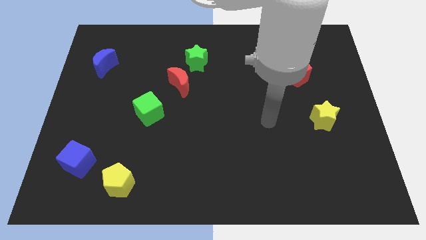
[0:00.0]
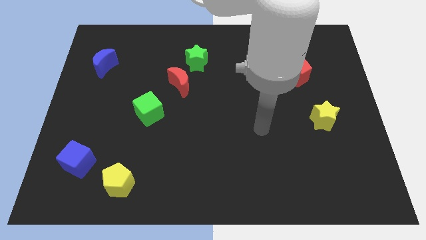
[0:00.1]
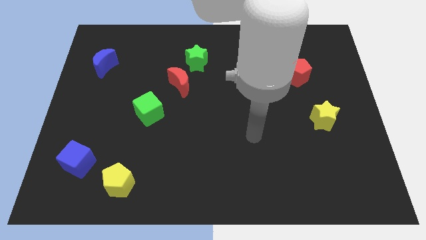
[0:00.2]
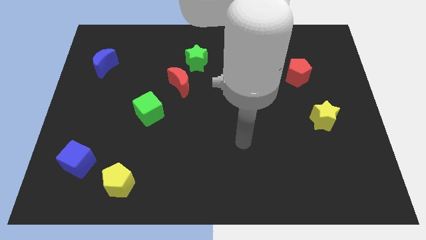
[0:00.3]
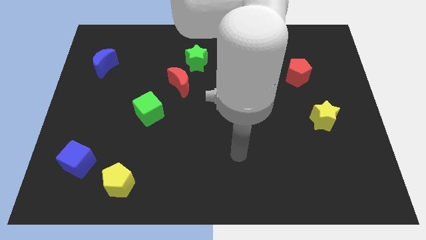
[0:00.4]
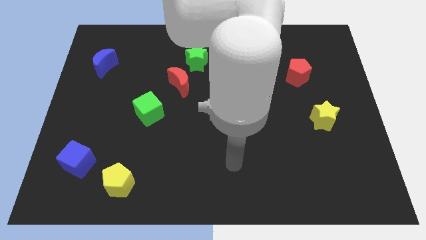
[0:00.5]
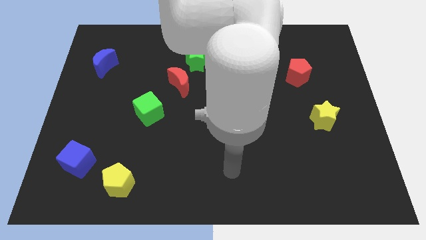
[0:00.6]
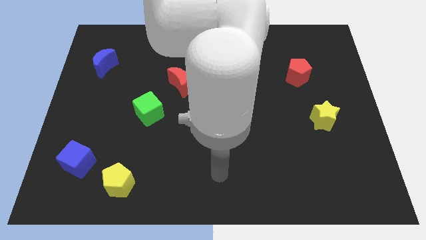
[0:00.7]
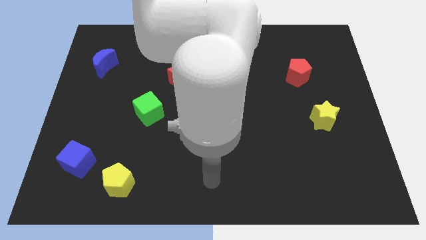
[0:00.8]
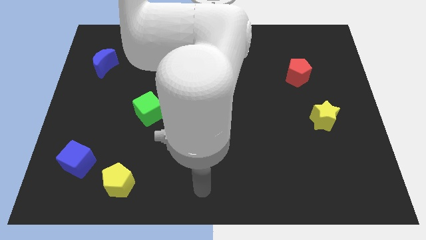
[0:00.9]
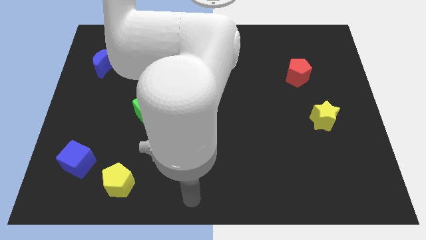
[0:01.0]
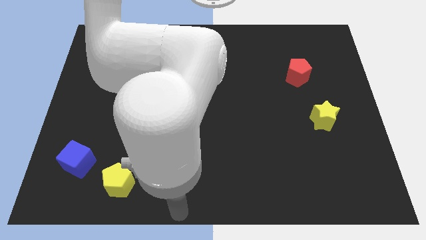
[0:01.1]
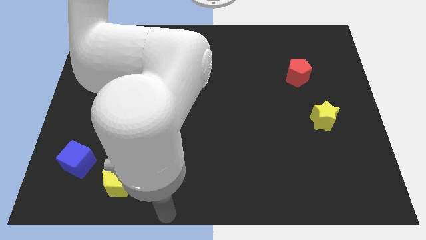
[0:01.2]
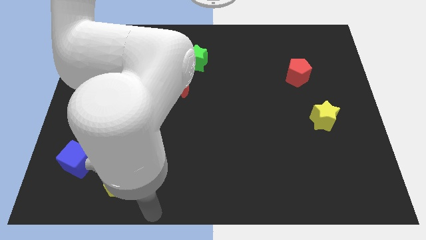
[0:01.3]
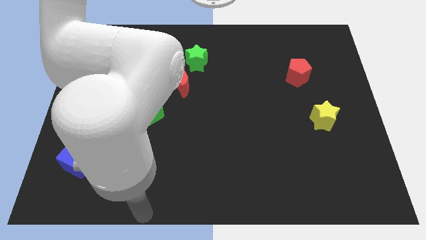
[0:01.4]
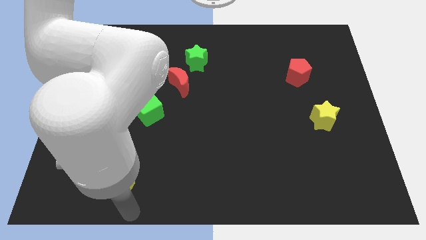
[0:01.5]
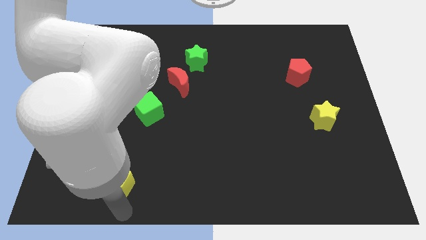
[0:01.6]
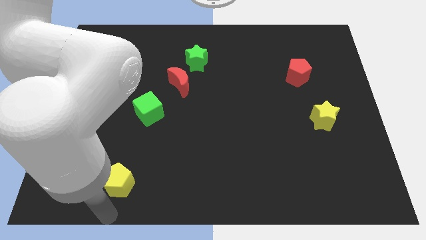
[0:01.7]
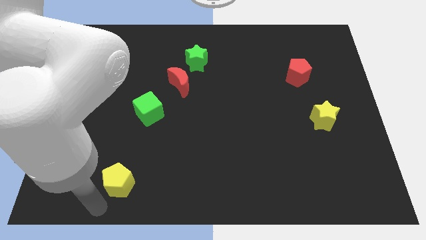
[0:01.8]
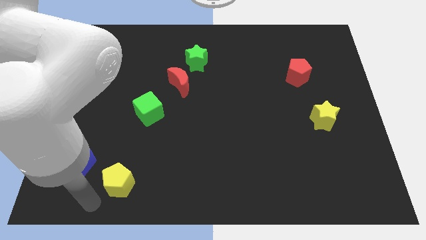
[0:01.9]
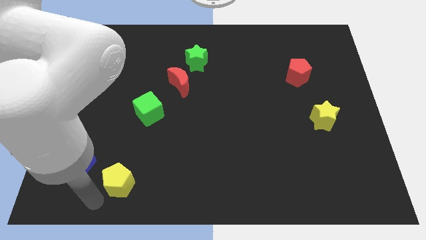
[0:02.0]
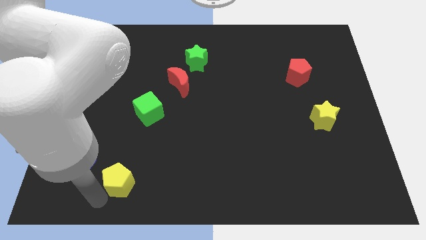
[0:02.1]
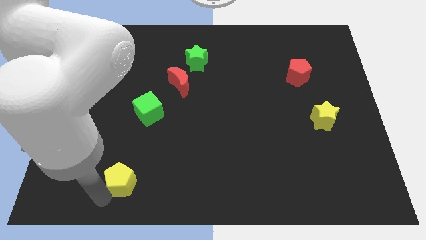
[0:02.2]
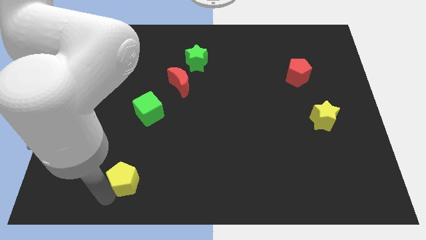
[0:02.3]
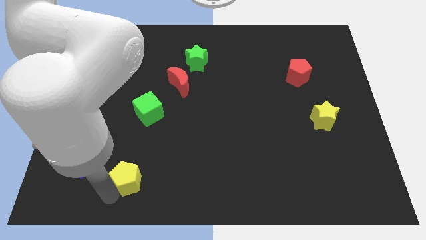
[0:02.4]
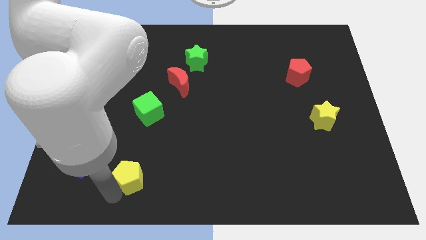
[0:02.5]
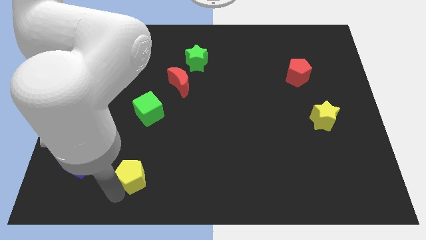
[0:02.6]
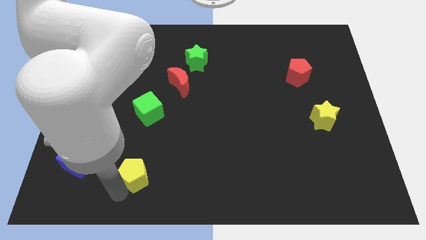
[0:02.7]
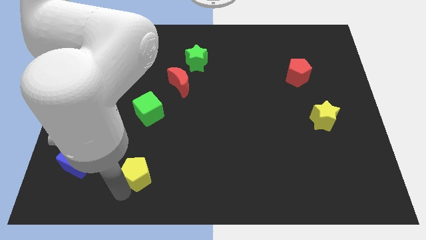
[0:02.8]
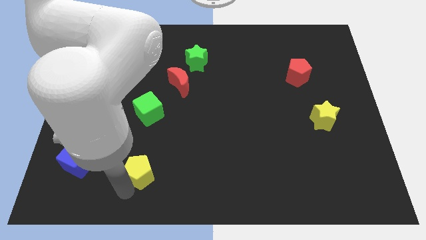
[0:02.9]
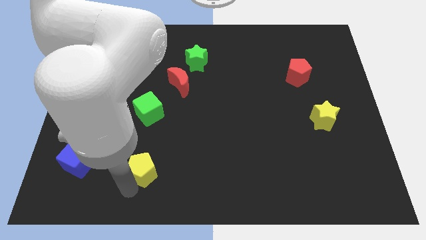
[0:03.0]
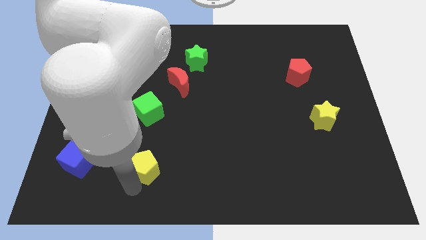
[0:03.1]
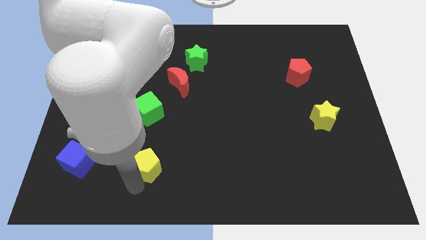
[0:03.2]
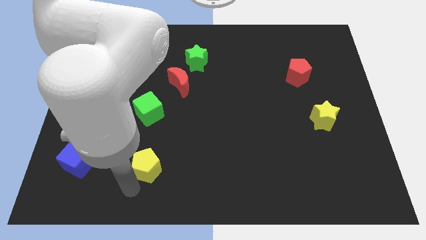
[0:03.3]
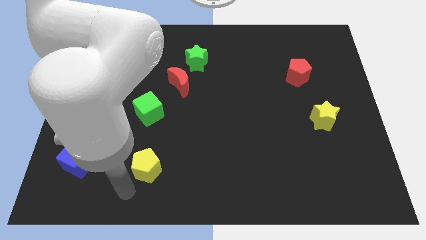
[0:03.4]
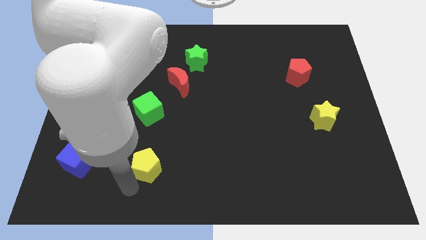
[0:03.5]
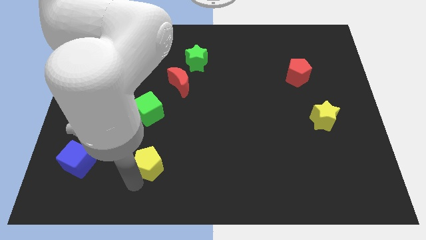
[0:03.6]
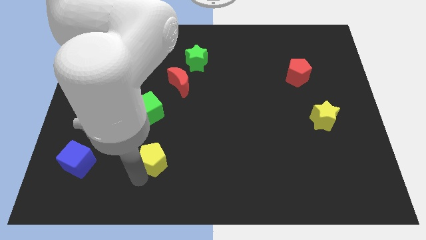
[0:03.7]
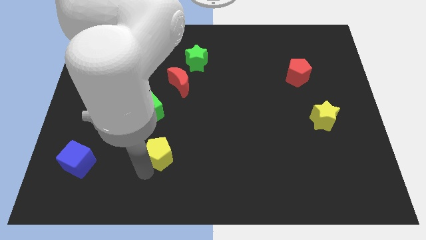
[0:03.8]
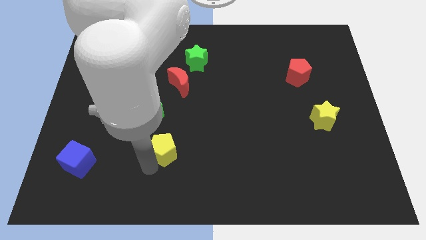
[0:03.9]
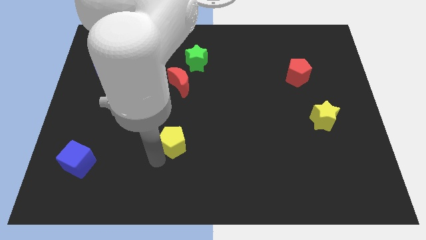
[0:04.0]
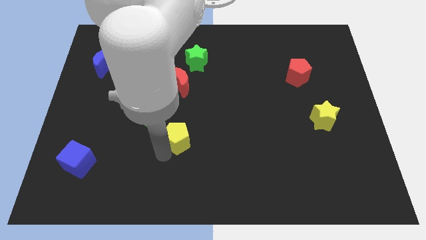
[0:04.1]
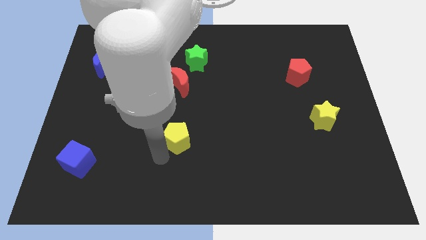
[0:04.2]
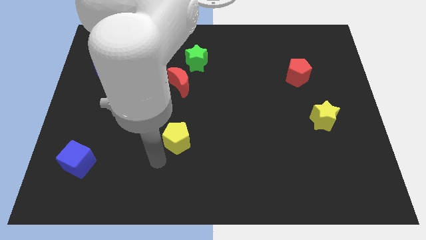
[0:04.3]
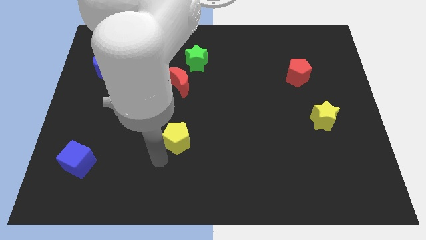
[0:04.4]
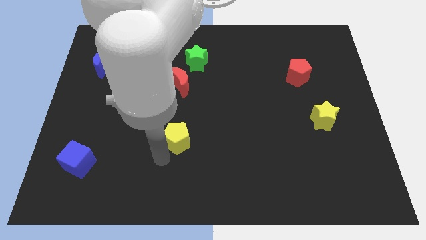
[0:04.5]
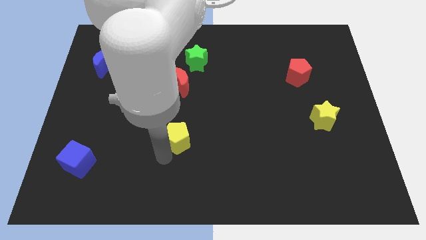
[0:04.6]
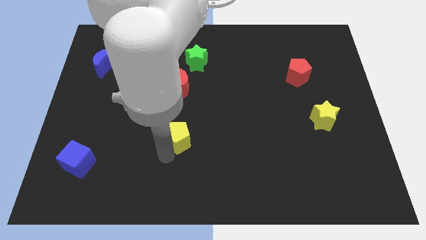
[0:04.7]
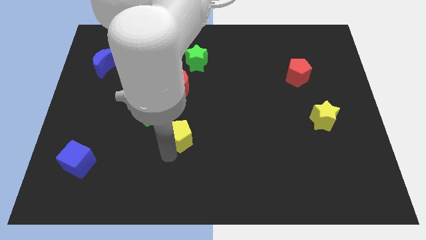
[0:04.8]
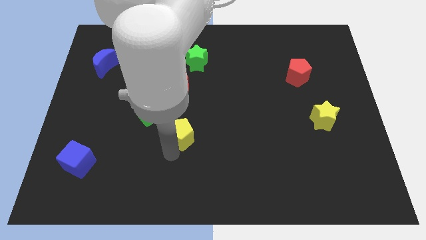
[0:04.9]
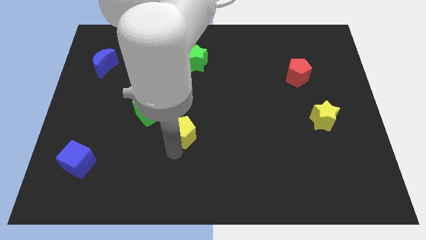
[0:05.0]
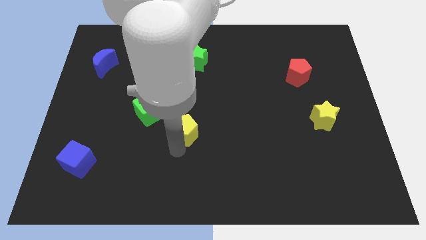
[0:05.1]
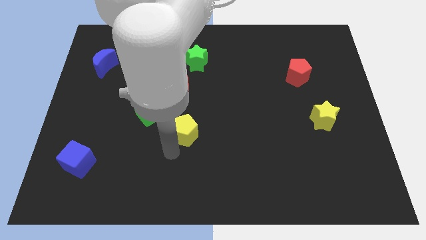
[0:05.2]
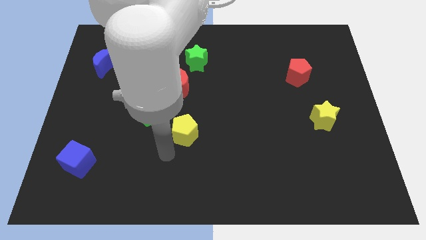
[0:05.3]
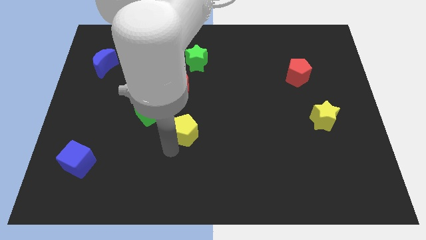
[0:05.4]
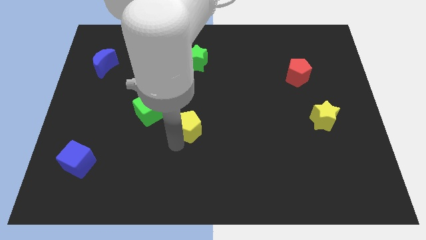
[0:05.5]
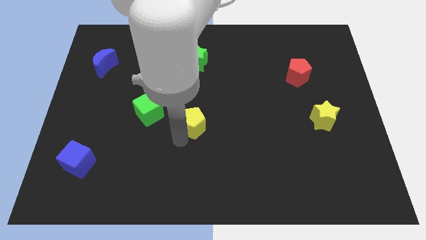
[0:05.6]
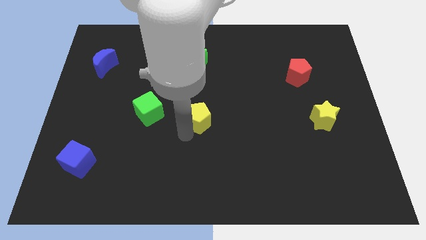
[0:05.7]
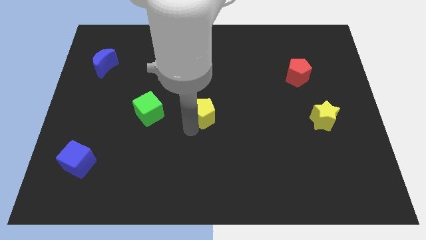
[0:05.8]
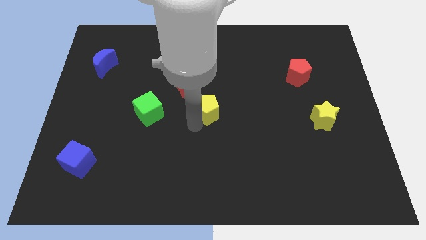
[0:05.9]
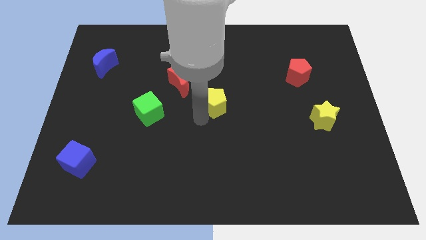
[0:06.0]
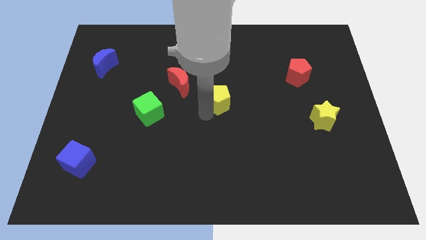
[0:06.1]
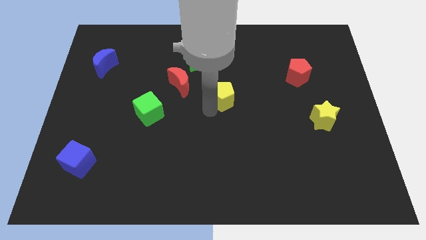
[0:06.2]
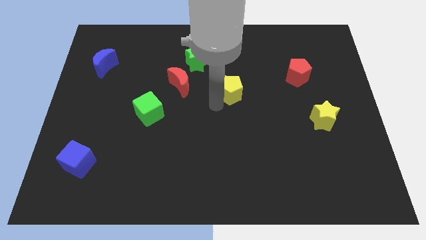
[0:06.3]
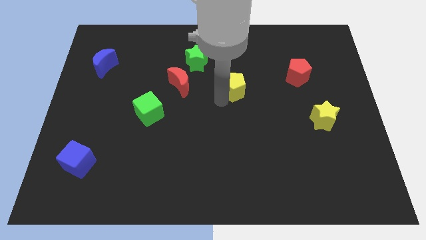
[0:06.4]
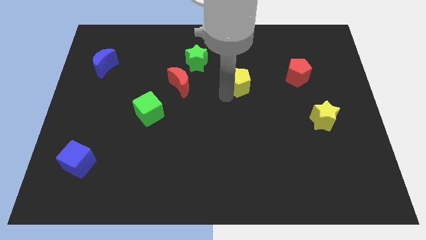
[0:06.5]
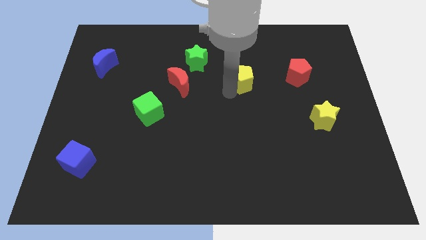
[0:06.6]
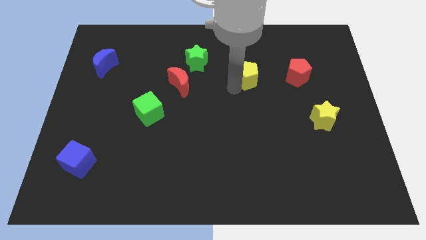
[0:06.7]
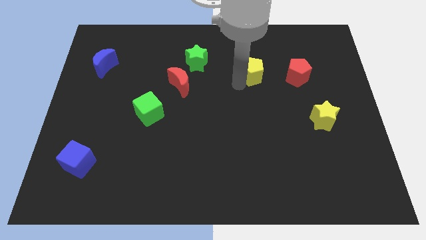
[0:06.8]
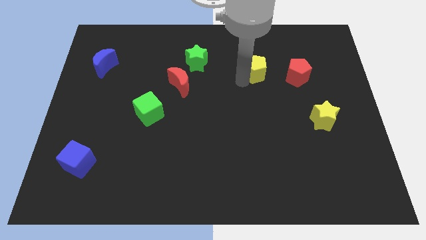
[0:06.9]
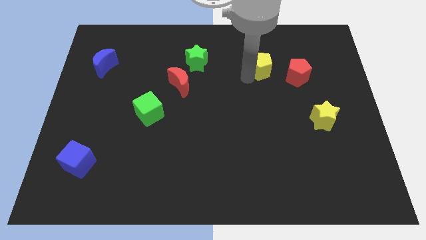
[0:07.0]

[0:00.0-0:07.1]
push the yellow pentagon to the top left of the red pentagon

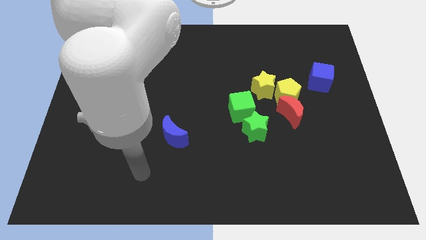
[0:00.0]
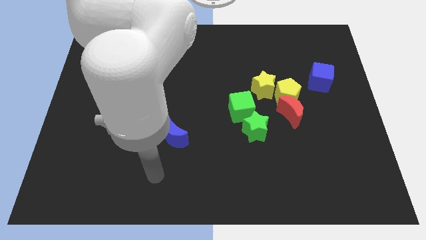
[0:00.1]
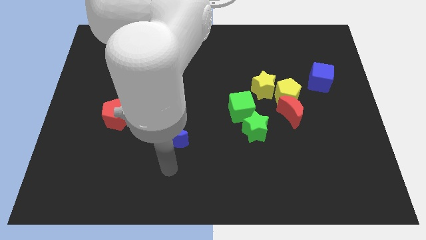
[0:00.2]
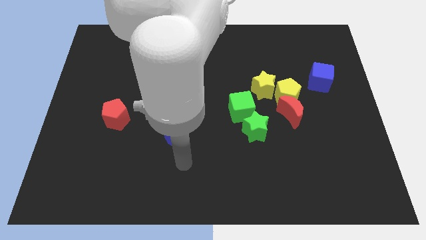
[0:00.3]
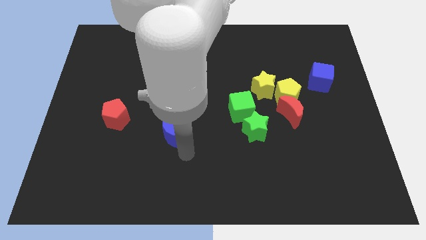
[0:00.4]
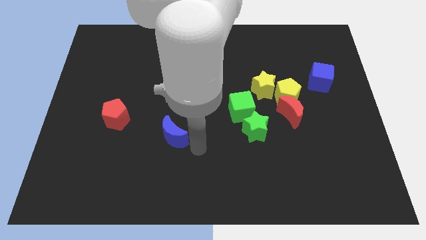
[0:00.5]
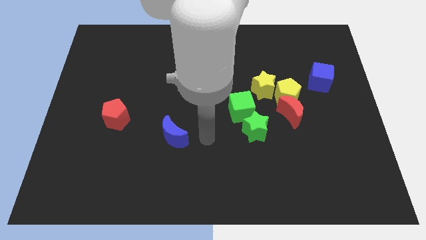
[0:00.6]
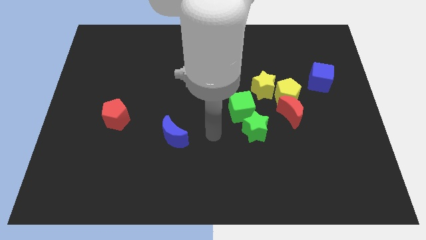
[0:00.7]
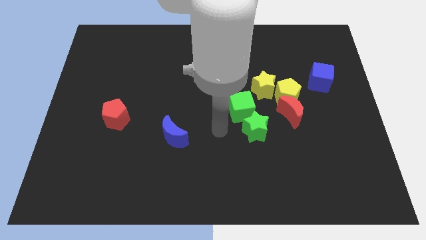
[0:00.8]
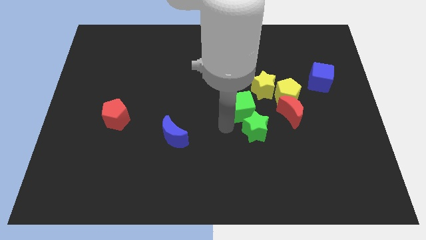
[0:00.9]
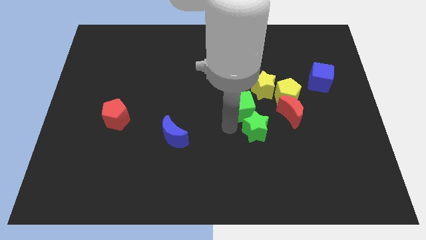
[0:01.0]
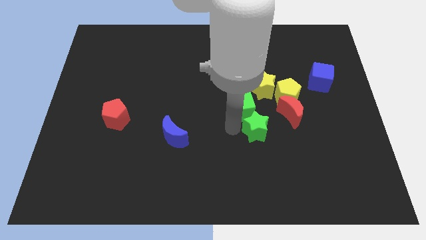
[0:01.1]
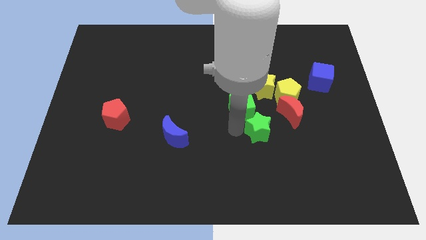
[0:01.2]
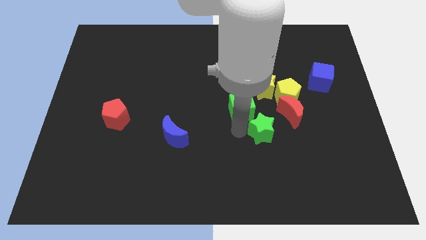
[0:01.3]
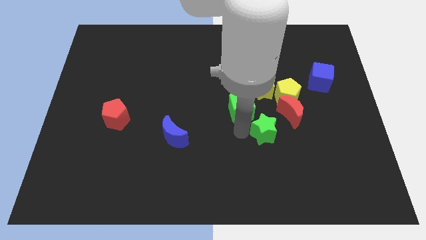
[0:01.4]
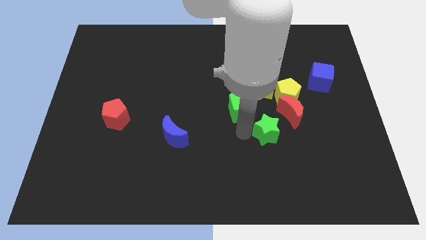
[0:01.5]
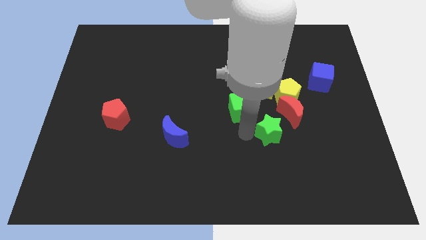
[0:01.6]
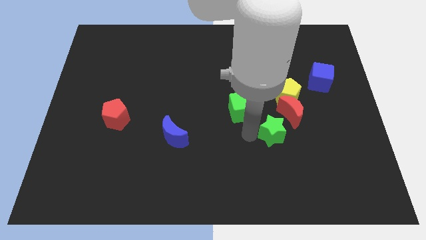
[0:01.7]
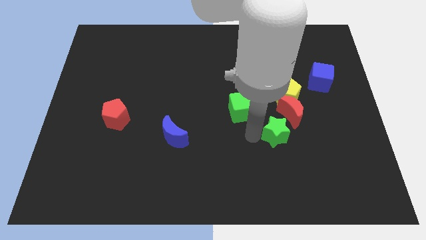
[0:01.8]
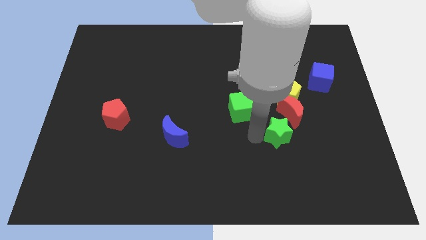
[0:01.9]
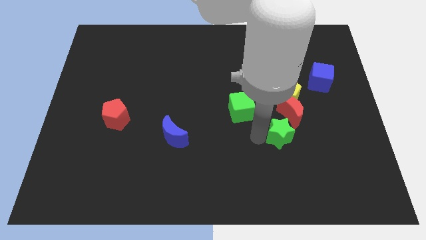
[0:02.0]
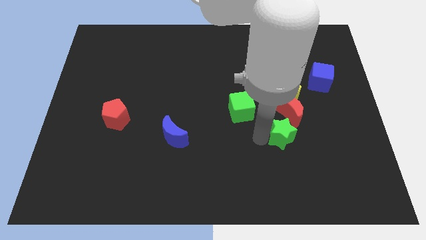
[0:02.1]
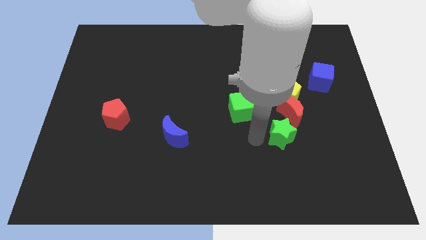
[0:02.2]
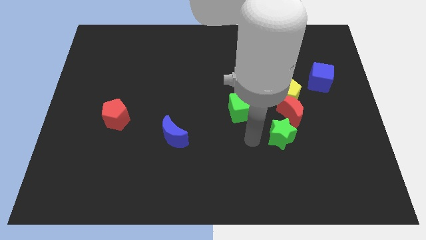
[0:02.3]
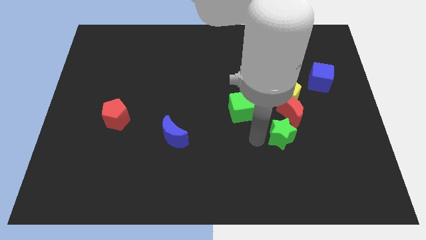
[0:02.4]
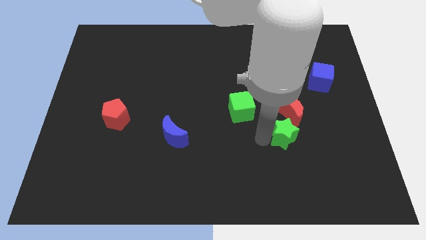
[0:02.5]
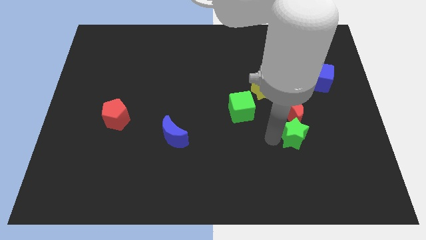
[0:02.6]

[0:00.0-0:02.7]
put the green star to the bottom right of the red moon
